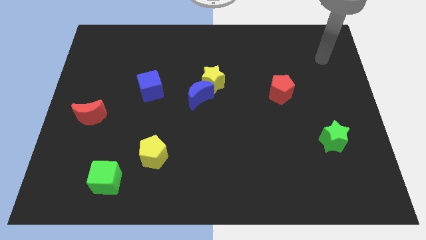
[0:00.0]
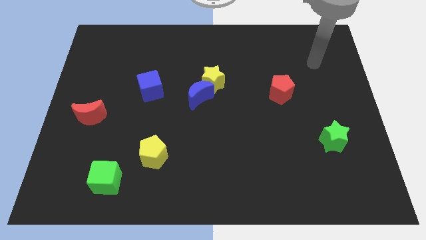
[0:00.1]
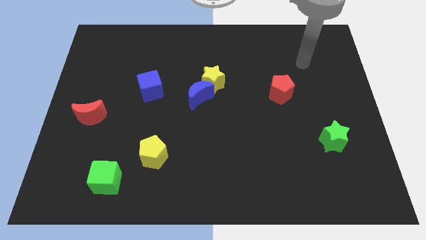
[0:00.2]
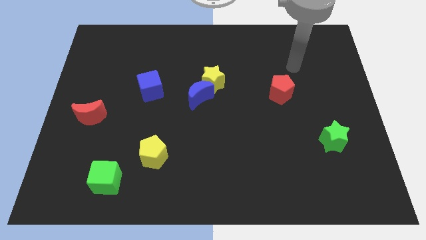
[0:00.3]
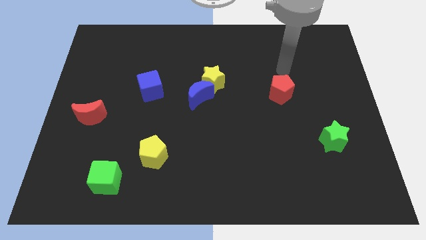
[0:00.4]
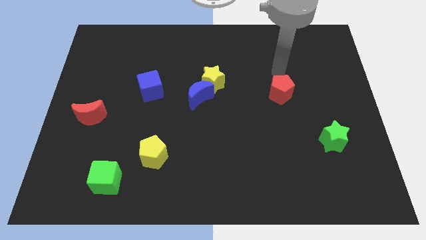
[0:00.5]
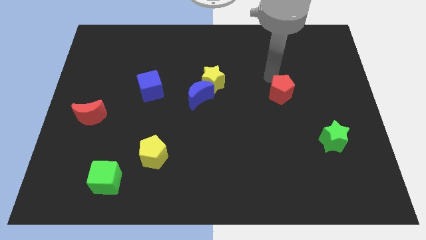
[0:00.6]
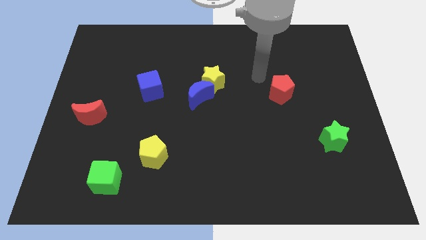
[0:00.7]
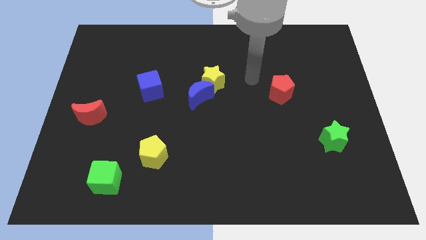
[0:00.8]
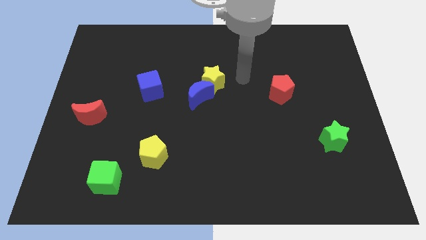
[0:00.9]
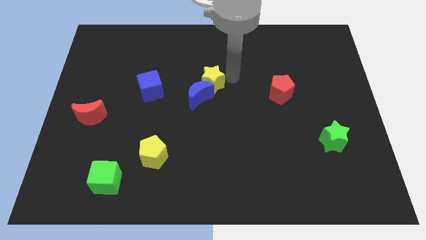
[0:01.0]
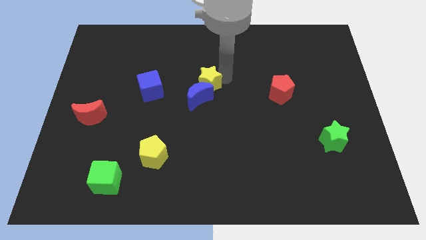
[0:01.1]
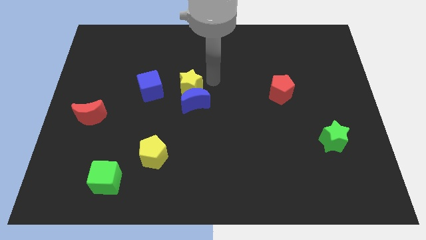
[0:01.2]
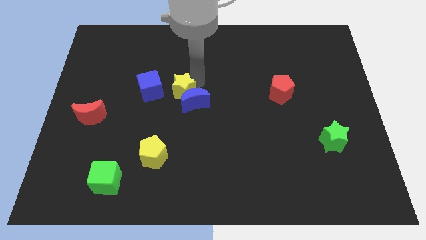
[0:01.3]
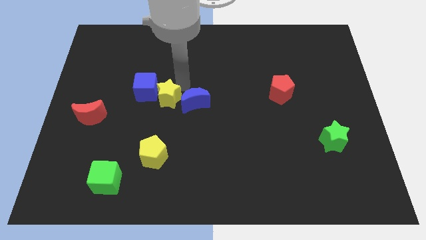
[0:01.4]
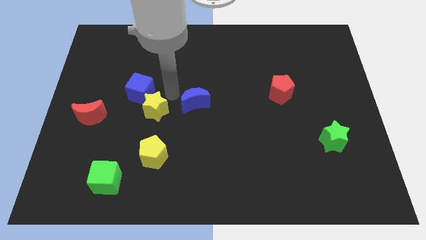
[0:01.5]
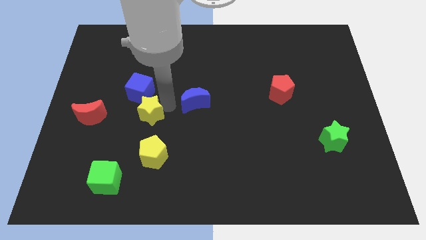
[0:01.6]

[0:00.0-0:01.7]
separate the blue moon from the yellow star

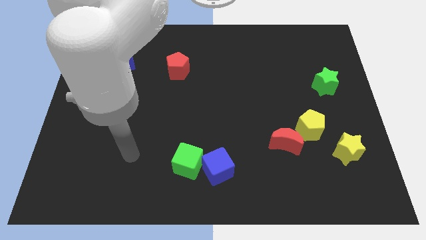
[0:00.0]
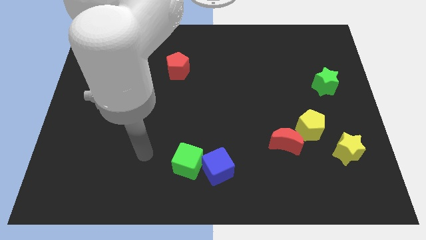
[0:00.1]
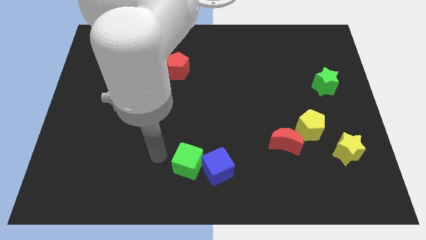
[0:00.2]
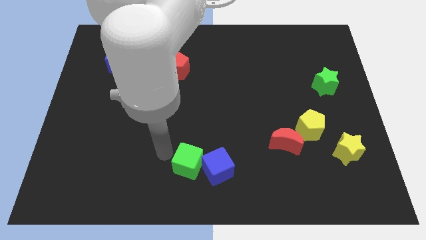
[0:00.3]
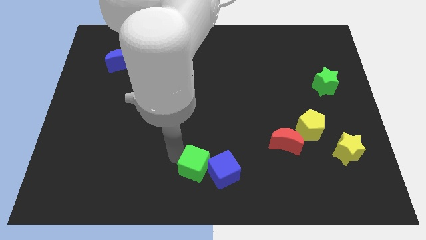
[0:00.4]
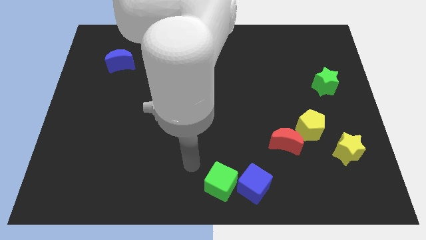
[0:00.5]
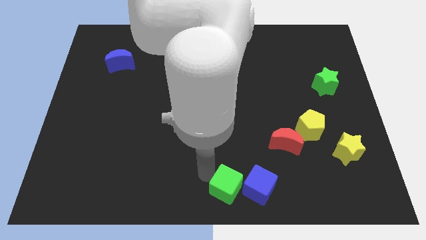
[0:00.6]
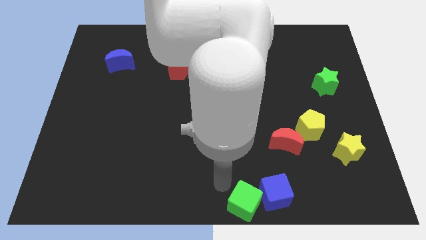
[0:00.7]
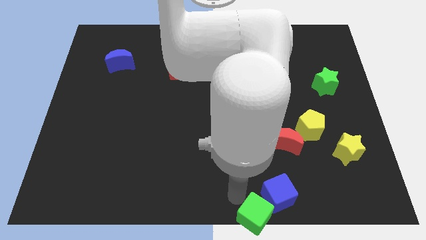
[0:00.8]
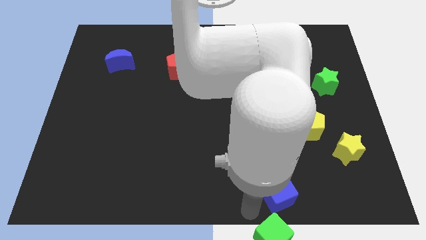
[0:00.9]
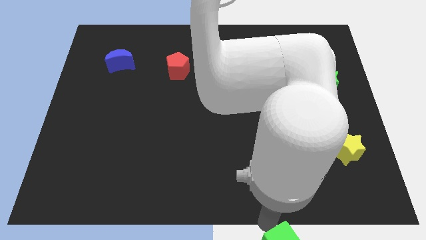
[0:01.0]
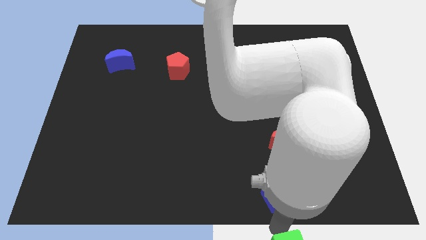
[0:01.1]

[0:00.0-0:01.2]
separate the blue cube from the green cube

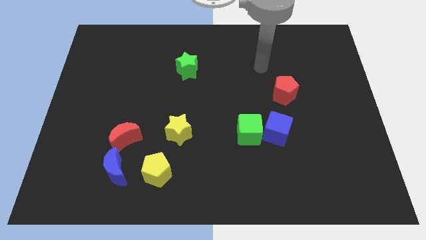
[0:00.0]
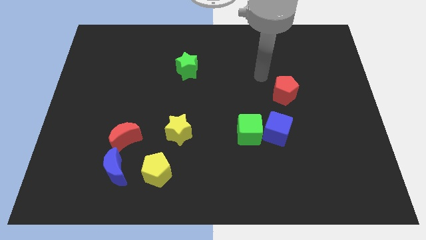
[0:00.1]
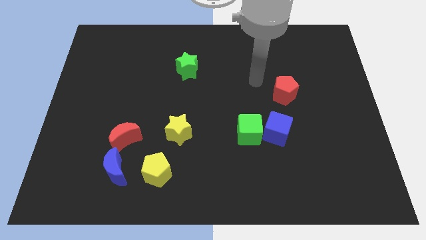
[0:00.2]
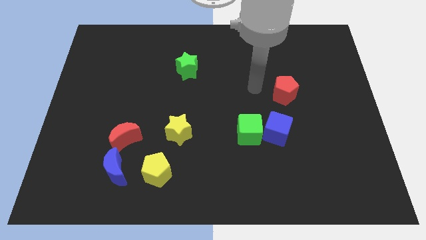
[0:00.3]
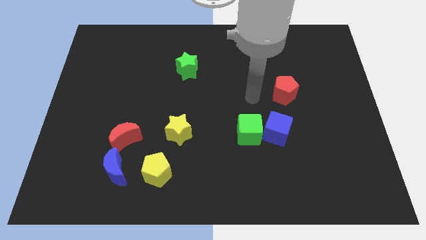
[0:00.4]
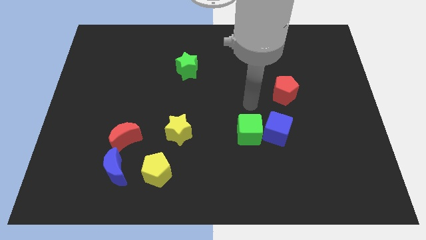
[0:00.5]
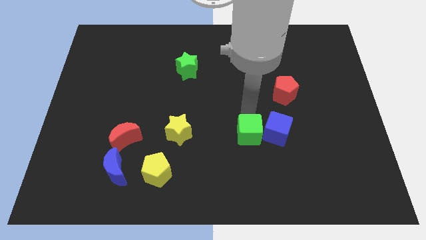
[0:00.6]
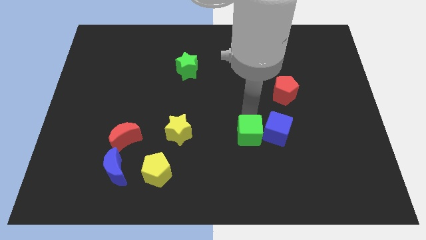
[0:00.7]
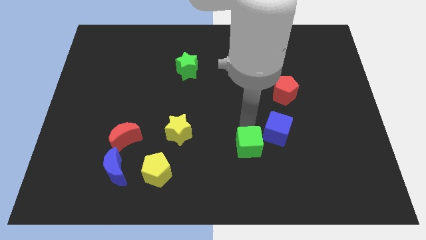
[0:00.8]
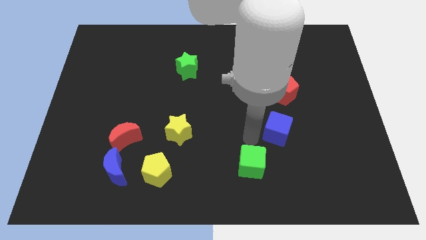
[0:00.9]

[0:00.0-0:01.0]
move the blue cube away from the green cube

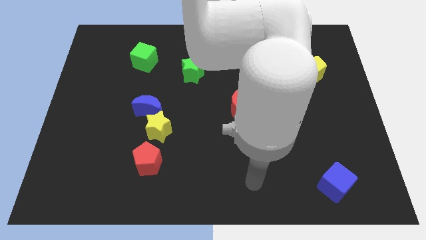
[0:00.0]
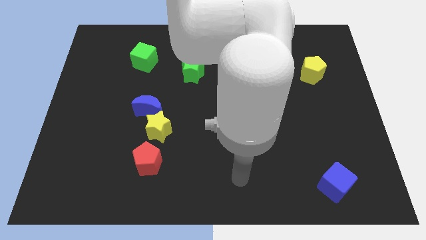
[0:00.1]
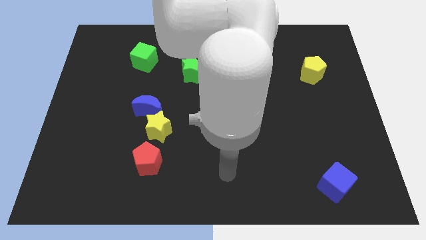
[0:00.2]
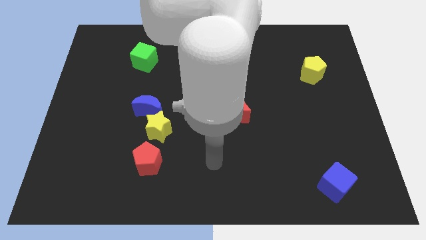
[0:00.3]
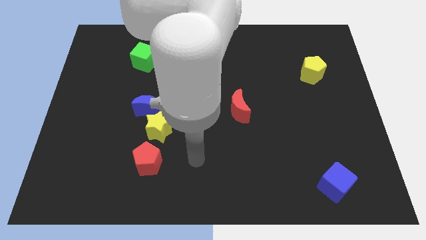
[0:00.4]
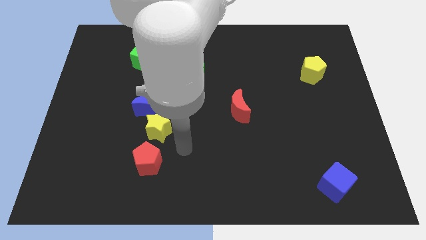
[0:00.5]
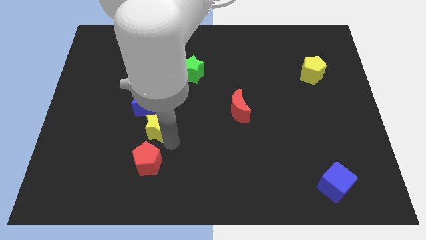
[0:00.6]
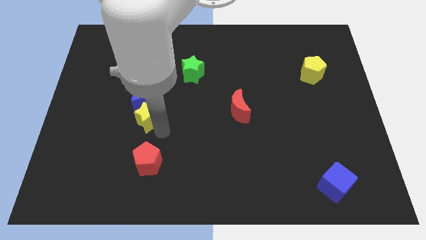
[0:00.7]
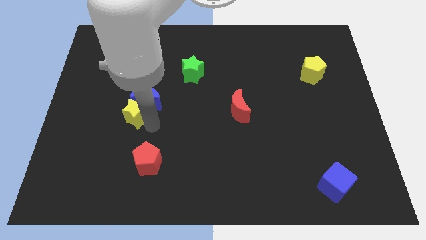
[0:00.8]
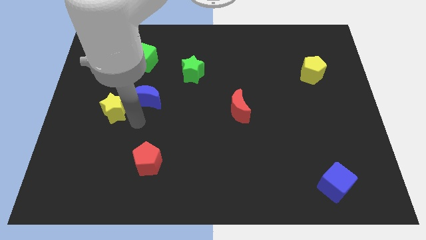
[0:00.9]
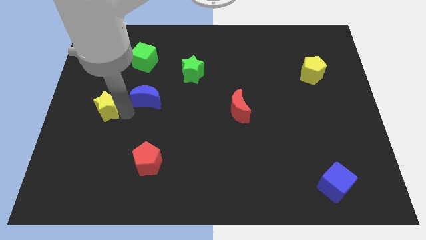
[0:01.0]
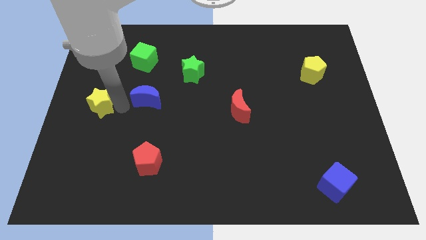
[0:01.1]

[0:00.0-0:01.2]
pull the blue moon apart from the yellow star

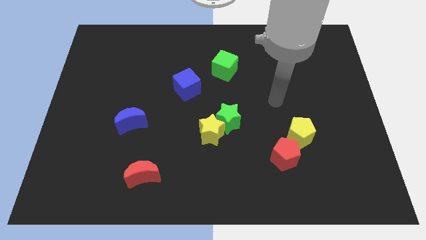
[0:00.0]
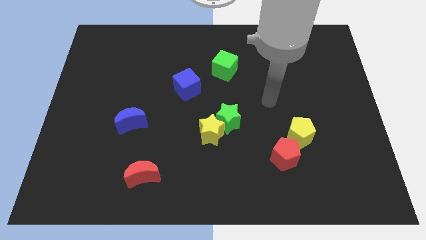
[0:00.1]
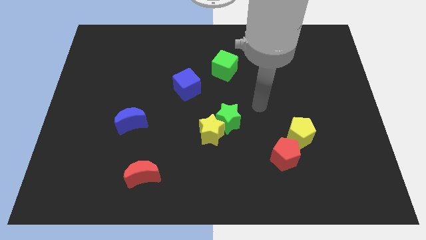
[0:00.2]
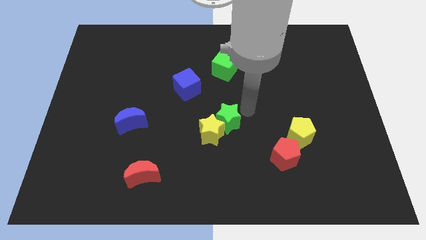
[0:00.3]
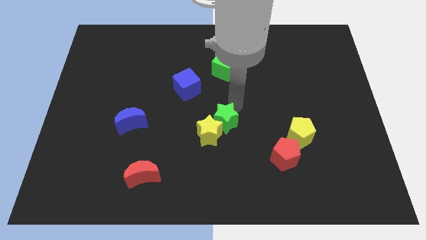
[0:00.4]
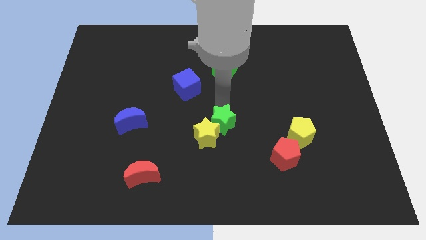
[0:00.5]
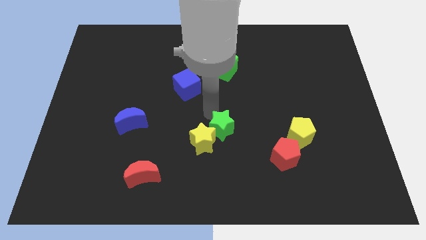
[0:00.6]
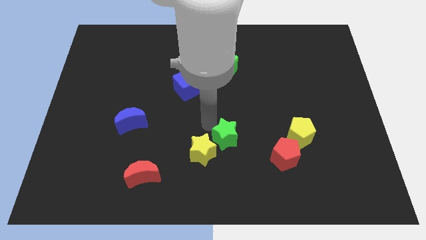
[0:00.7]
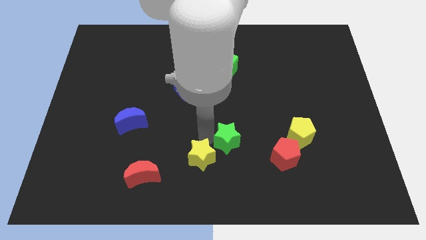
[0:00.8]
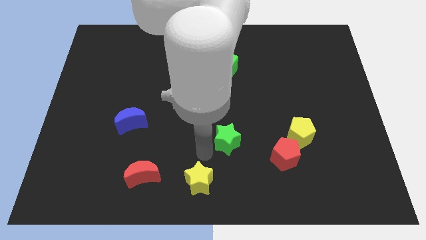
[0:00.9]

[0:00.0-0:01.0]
pull the green star apart from the yellow star

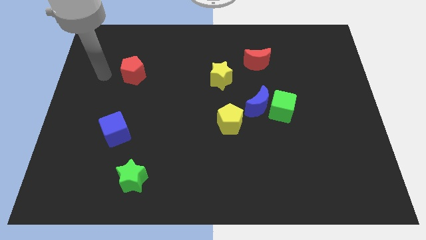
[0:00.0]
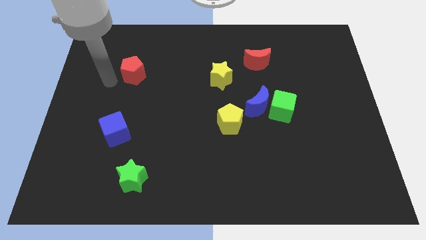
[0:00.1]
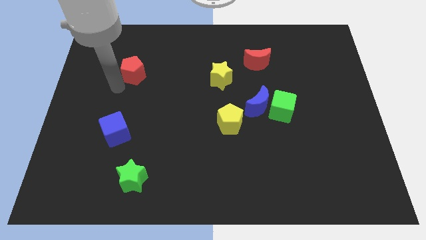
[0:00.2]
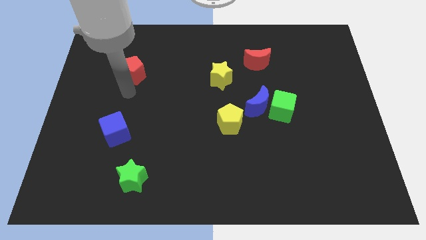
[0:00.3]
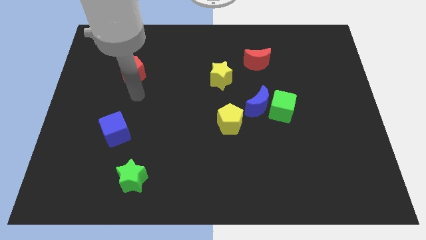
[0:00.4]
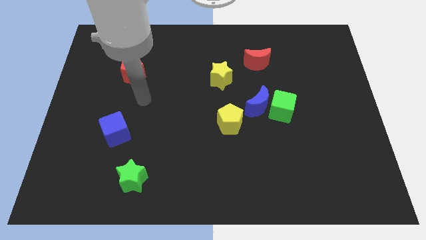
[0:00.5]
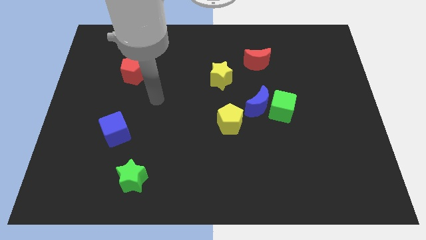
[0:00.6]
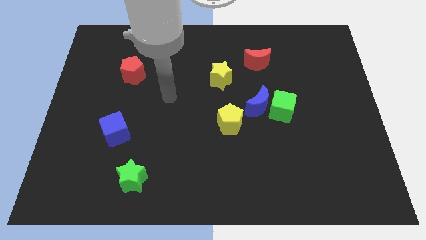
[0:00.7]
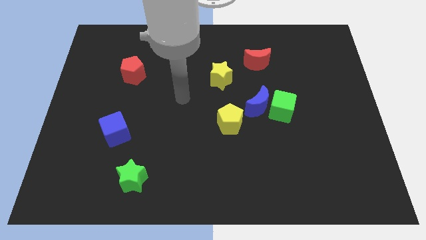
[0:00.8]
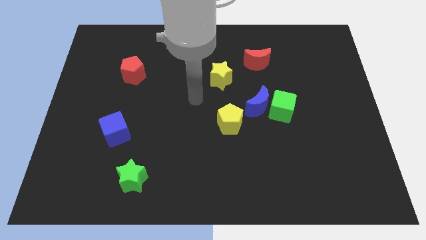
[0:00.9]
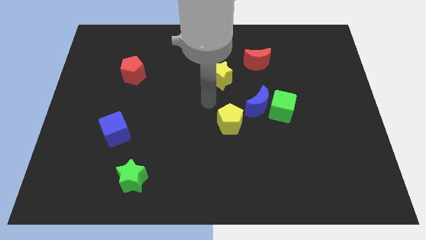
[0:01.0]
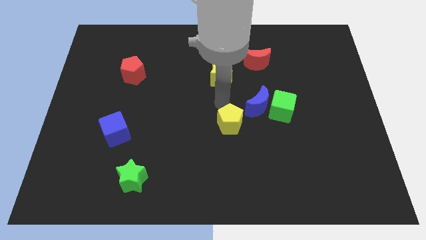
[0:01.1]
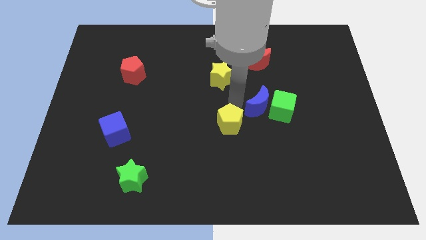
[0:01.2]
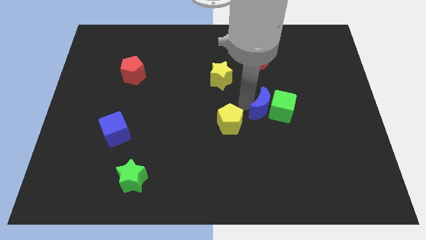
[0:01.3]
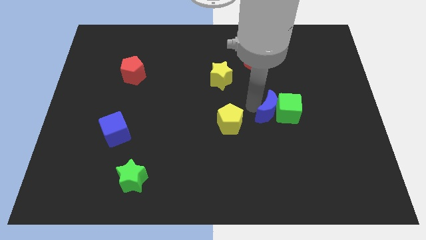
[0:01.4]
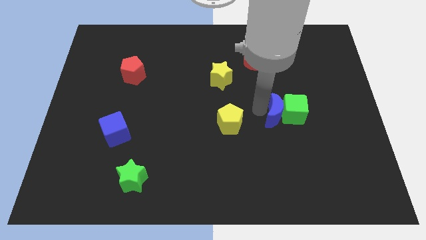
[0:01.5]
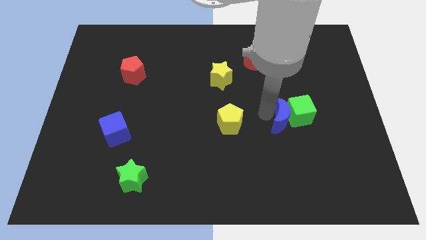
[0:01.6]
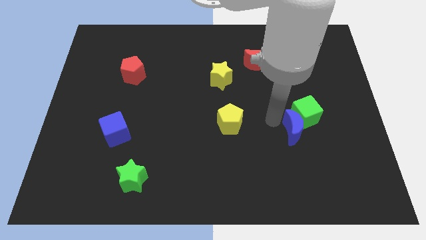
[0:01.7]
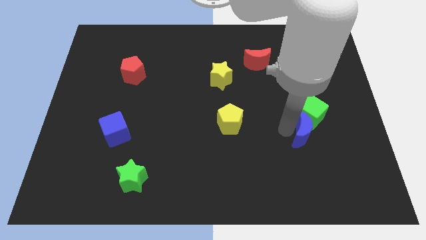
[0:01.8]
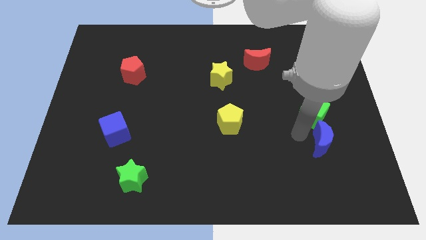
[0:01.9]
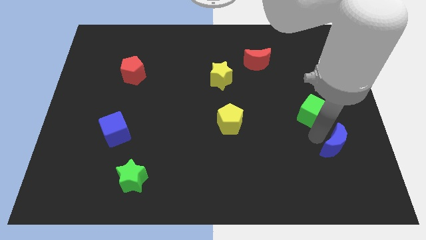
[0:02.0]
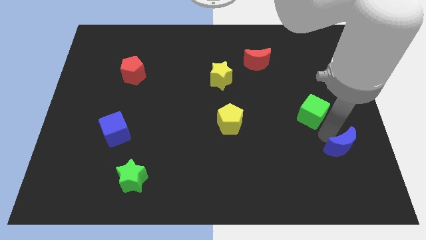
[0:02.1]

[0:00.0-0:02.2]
move the green cube away from the blue moon

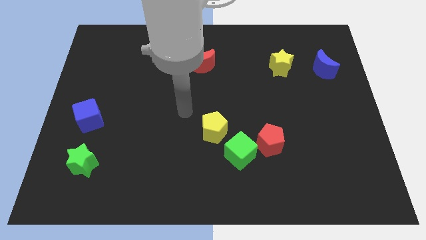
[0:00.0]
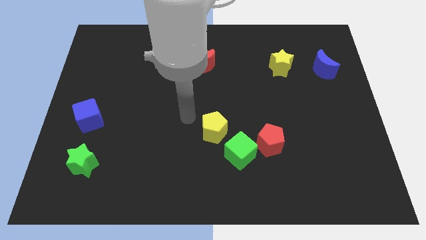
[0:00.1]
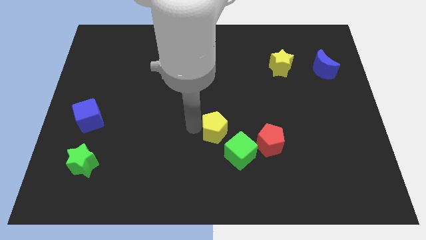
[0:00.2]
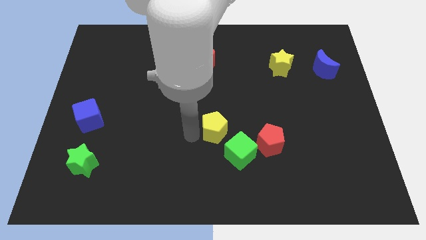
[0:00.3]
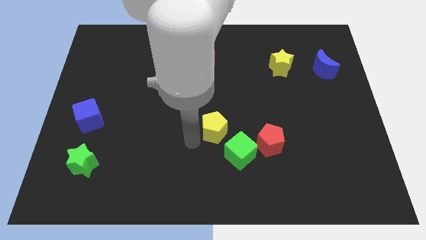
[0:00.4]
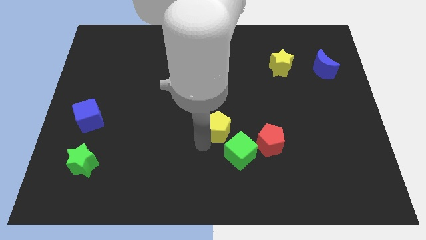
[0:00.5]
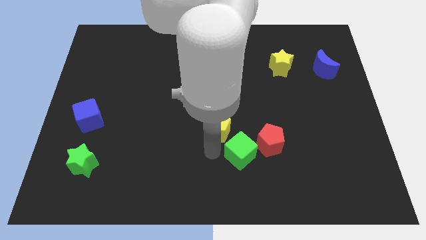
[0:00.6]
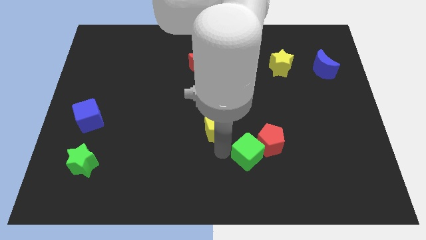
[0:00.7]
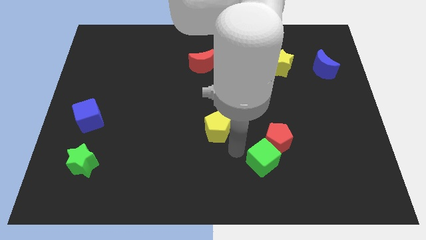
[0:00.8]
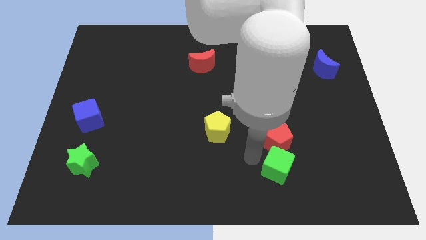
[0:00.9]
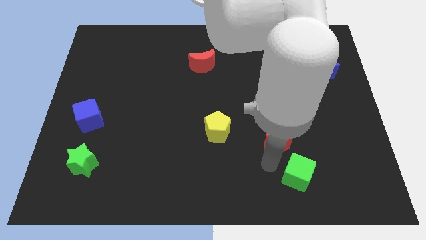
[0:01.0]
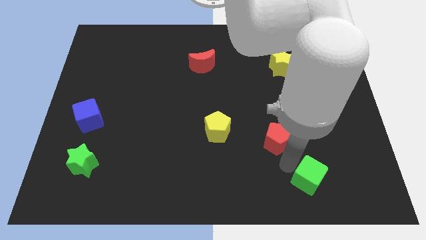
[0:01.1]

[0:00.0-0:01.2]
separate the red pentagon from the green cube
